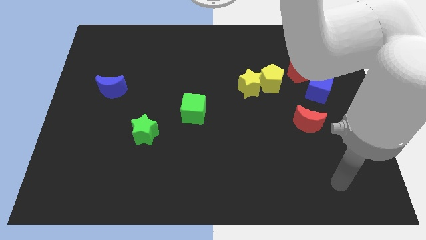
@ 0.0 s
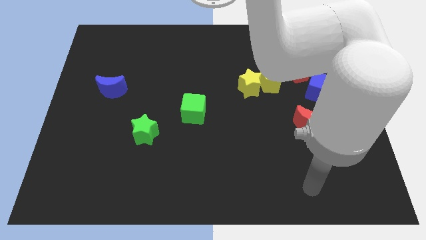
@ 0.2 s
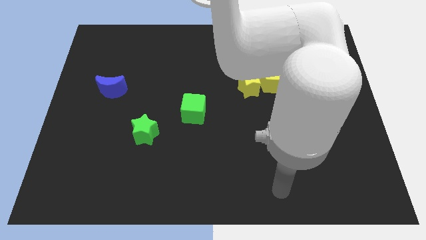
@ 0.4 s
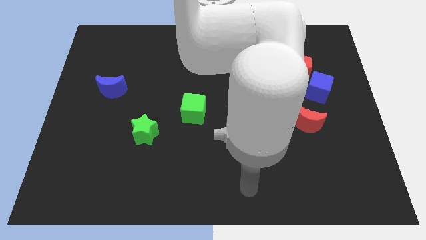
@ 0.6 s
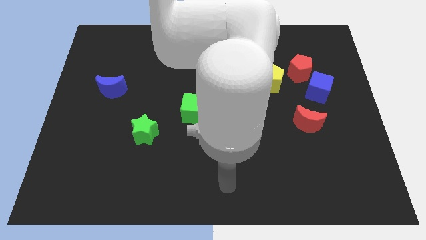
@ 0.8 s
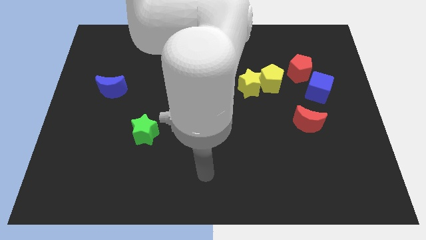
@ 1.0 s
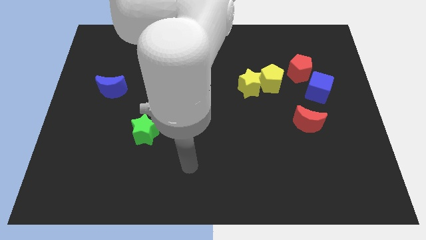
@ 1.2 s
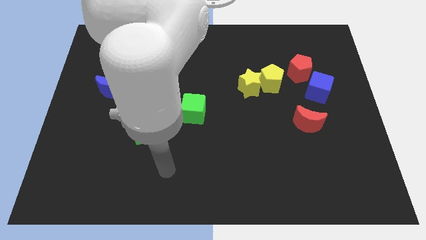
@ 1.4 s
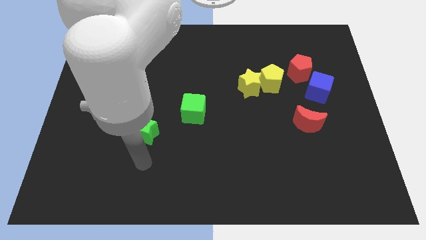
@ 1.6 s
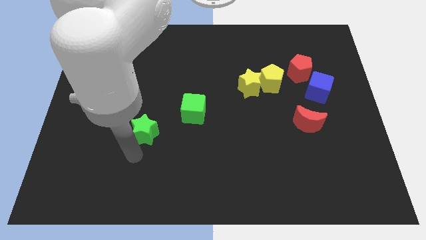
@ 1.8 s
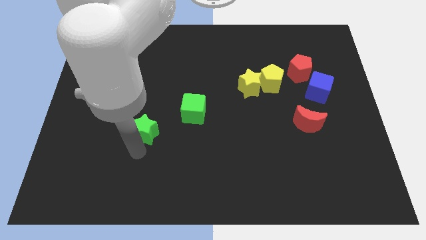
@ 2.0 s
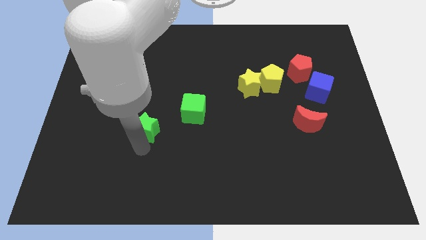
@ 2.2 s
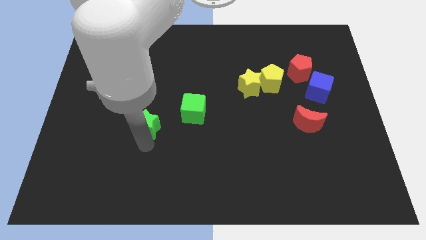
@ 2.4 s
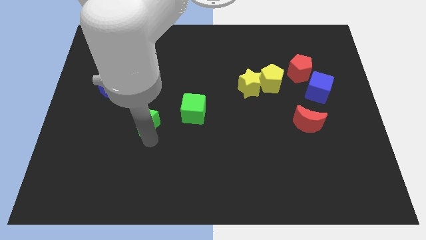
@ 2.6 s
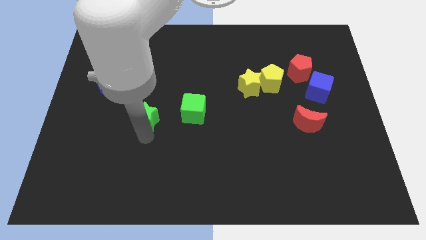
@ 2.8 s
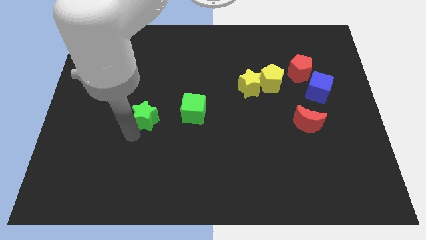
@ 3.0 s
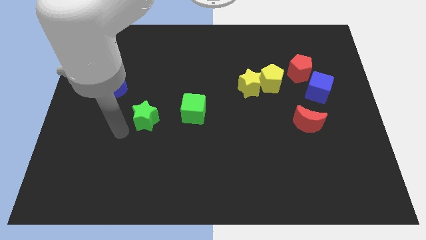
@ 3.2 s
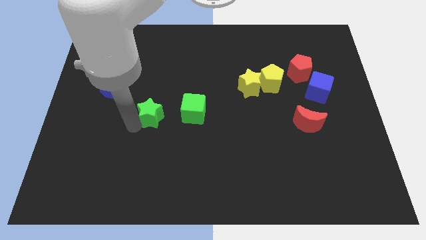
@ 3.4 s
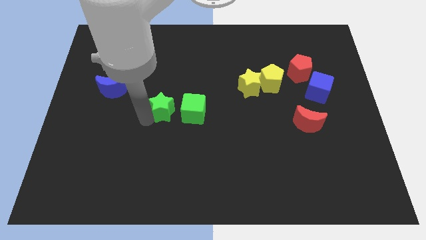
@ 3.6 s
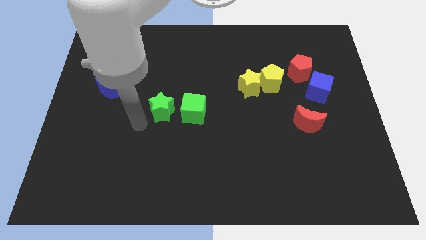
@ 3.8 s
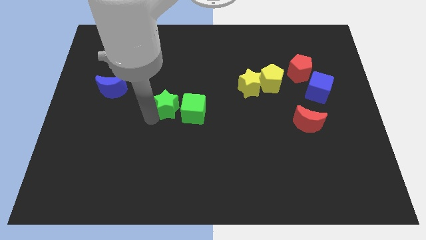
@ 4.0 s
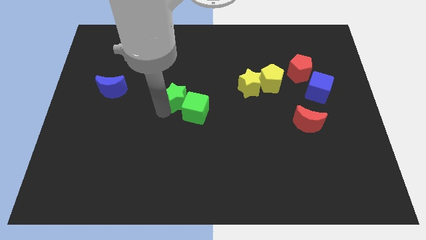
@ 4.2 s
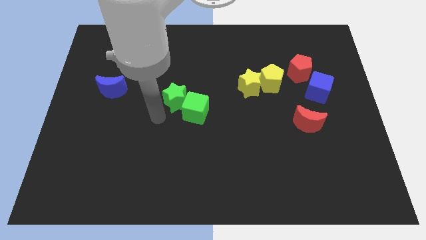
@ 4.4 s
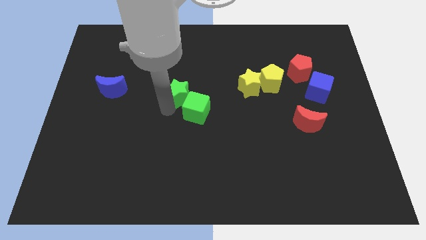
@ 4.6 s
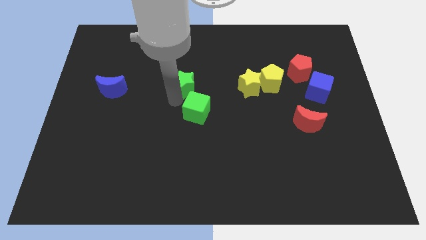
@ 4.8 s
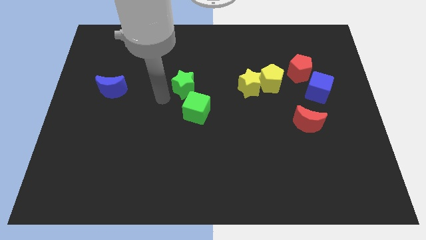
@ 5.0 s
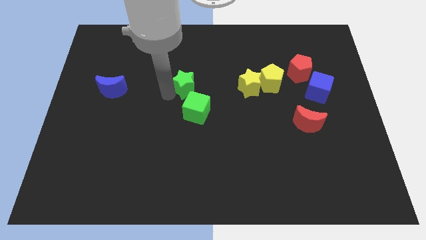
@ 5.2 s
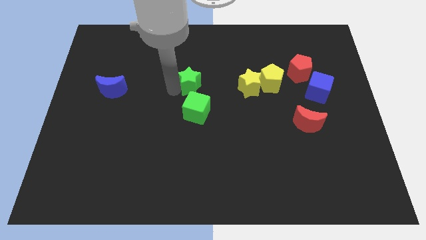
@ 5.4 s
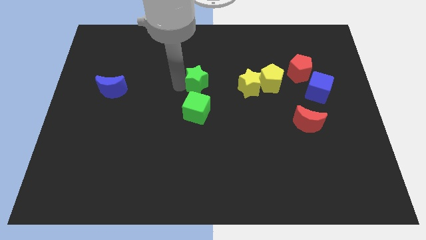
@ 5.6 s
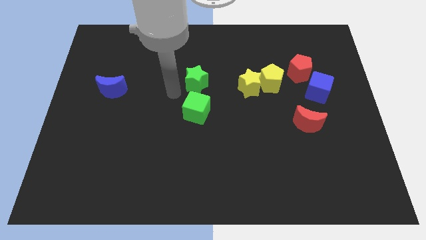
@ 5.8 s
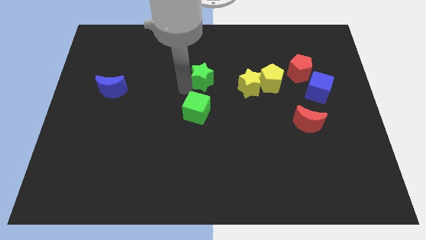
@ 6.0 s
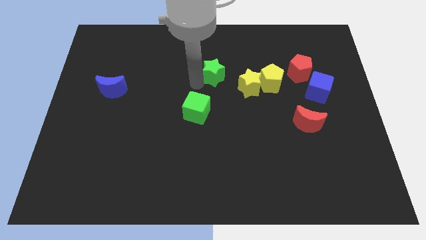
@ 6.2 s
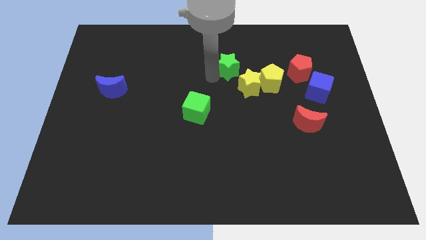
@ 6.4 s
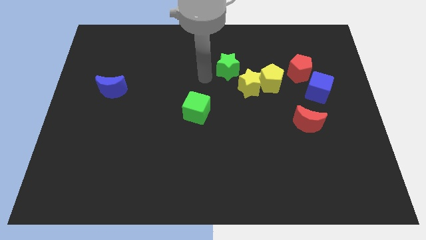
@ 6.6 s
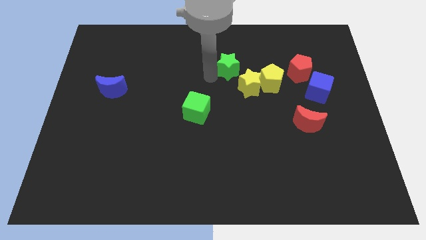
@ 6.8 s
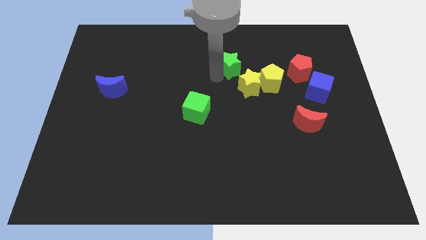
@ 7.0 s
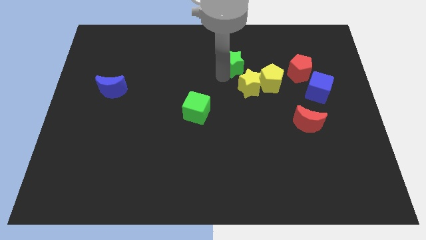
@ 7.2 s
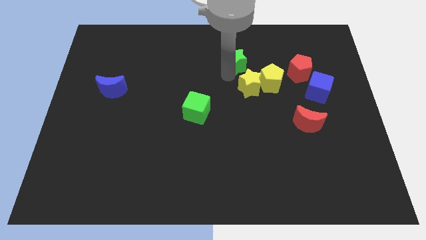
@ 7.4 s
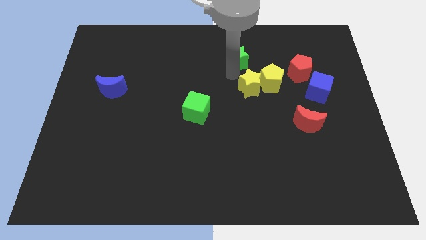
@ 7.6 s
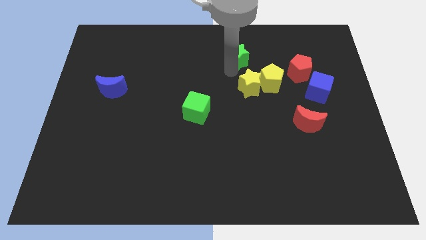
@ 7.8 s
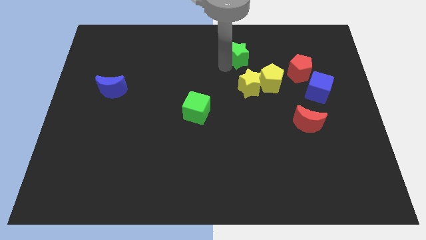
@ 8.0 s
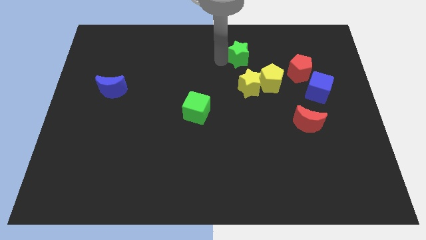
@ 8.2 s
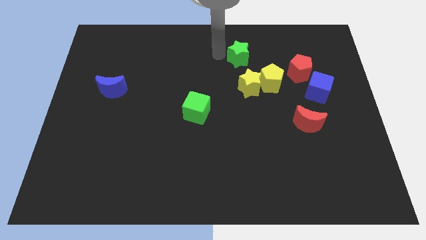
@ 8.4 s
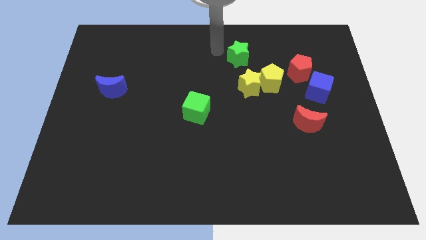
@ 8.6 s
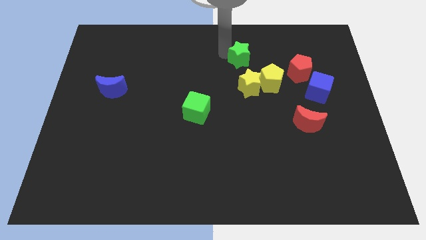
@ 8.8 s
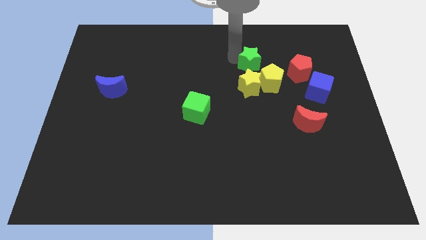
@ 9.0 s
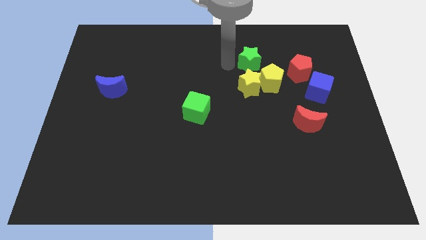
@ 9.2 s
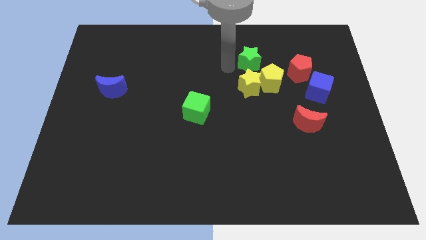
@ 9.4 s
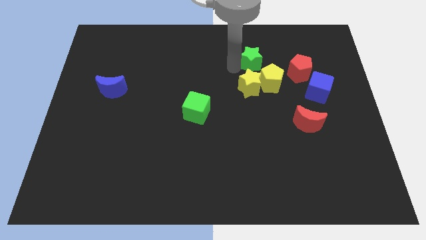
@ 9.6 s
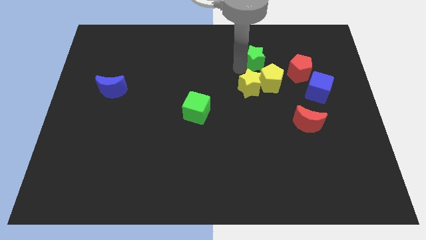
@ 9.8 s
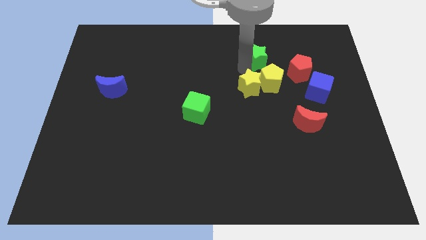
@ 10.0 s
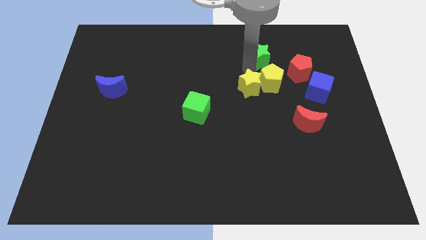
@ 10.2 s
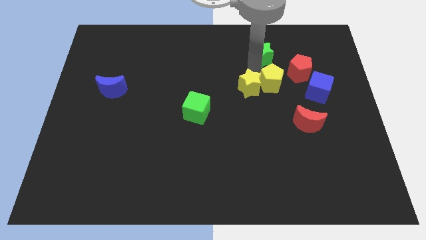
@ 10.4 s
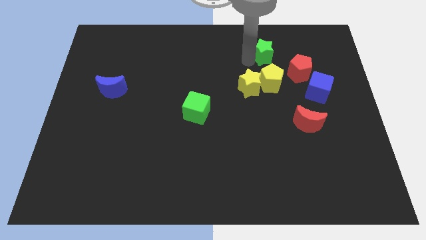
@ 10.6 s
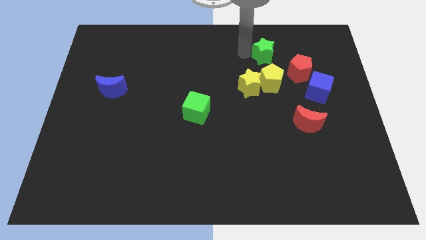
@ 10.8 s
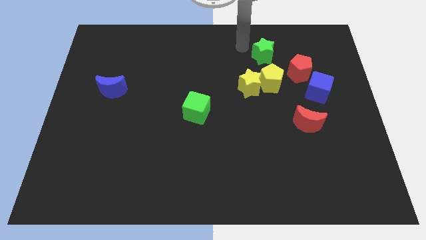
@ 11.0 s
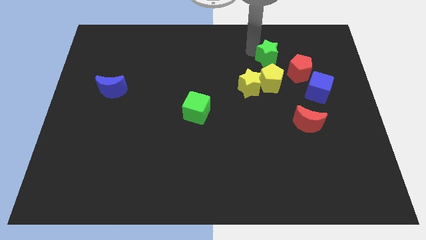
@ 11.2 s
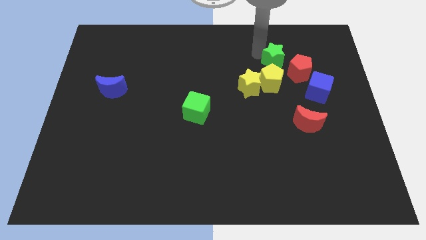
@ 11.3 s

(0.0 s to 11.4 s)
put the green star diagonally up and to the right of the yellow pentagon

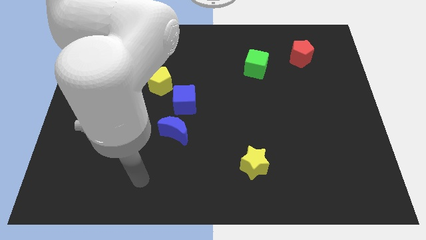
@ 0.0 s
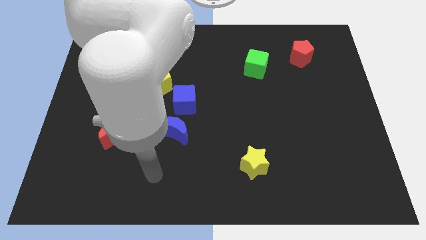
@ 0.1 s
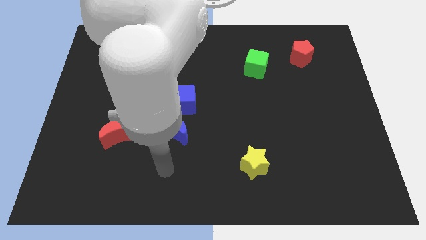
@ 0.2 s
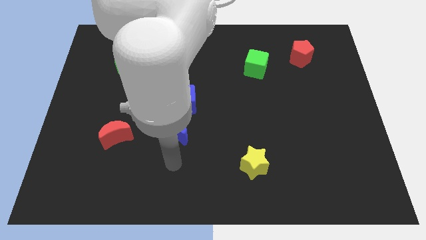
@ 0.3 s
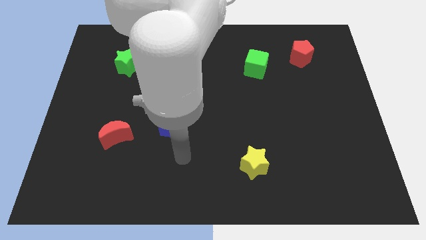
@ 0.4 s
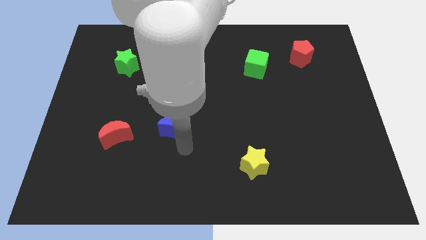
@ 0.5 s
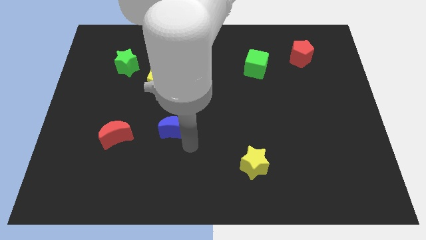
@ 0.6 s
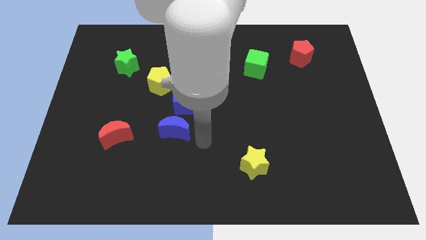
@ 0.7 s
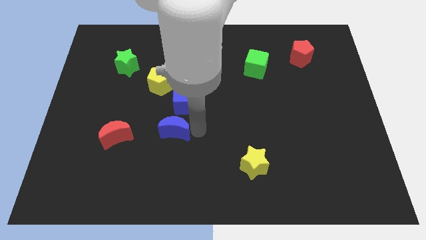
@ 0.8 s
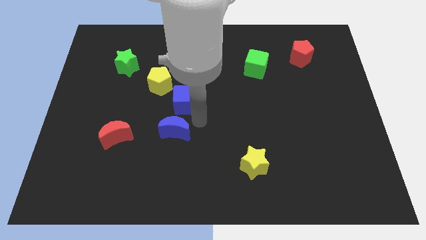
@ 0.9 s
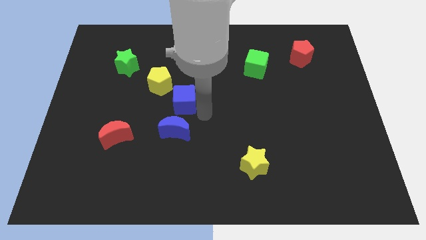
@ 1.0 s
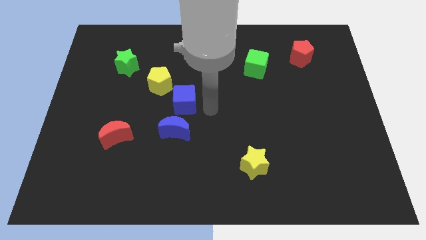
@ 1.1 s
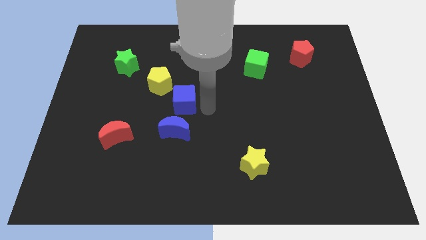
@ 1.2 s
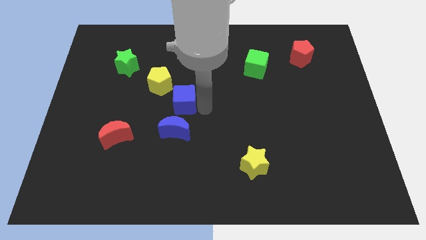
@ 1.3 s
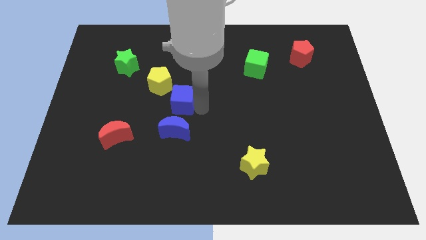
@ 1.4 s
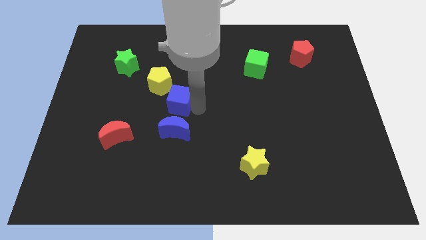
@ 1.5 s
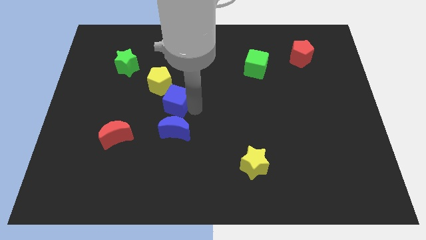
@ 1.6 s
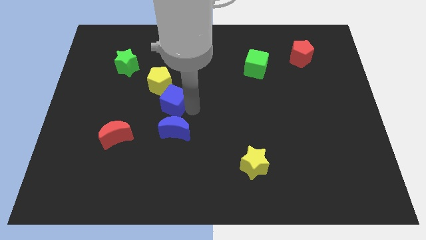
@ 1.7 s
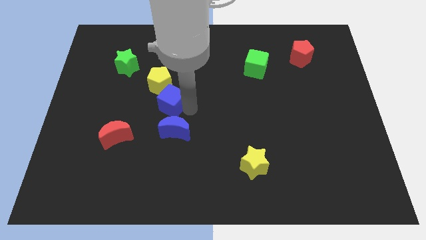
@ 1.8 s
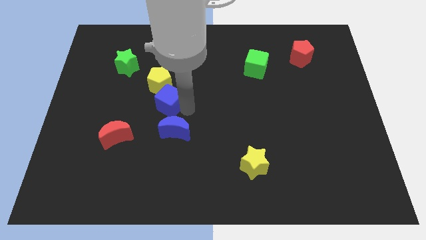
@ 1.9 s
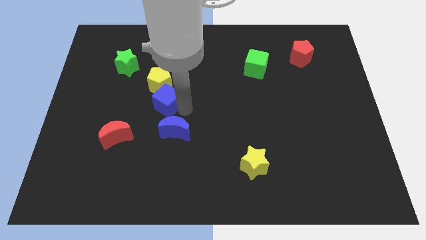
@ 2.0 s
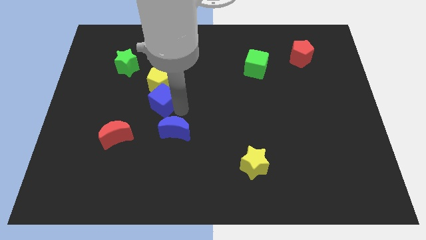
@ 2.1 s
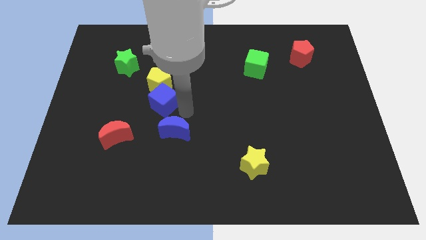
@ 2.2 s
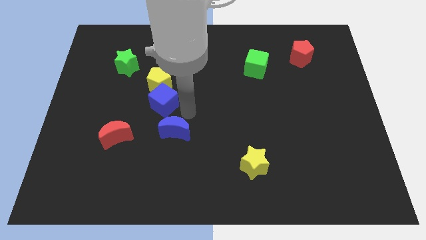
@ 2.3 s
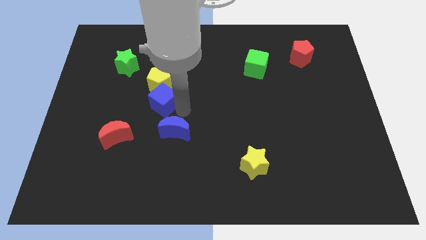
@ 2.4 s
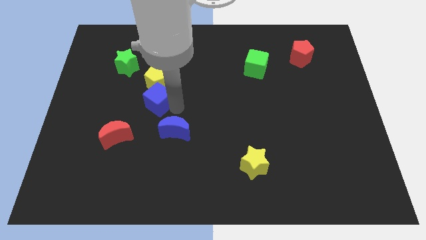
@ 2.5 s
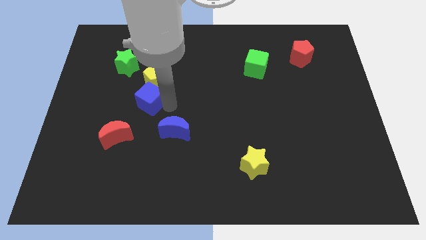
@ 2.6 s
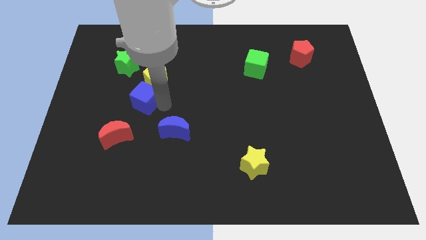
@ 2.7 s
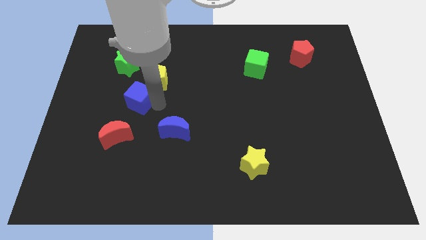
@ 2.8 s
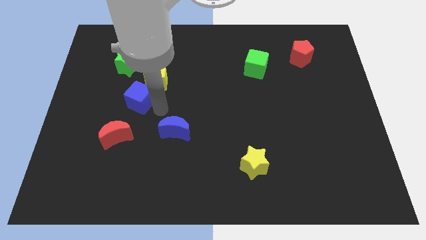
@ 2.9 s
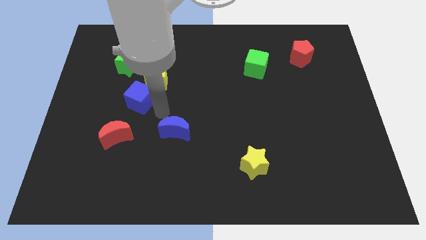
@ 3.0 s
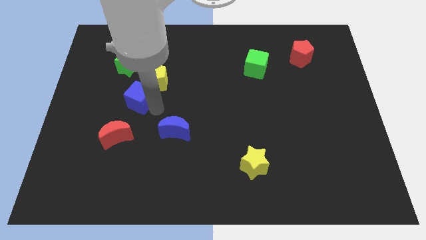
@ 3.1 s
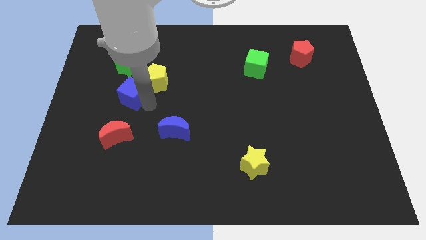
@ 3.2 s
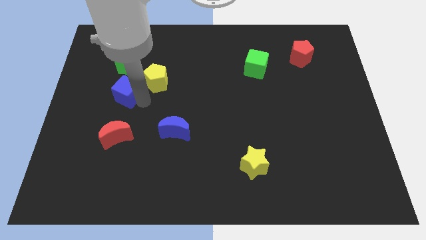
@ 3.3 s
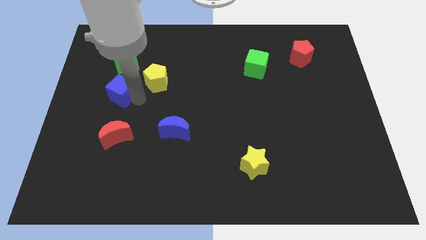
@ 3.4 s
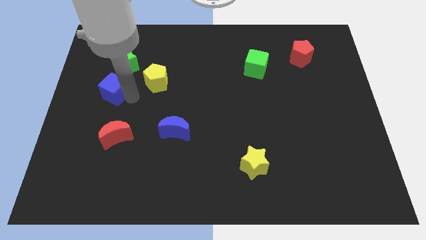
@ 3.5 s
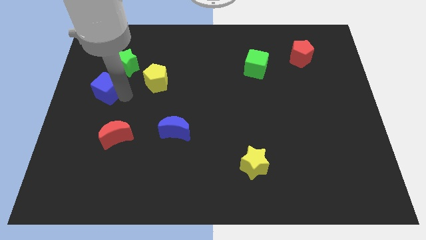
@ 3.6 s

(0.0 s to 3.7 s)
move the blue cube to the bottom left of the green star
